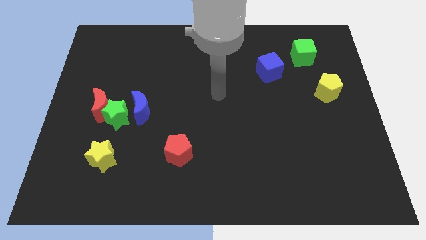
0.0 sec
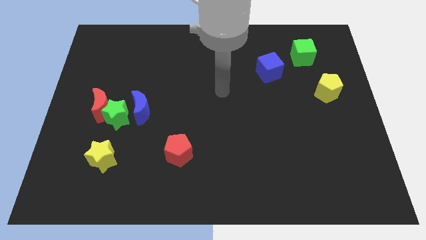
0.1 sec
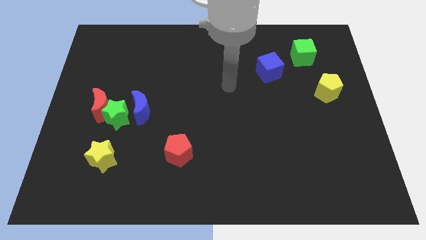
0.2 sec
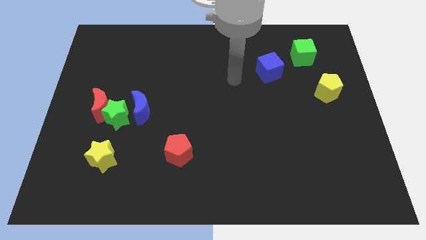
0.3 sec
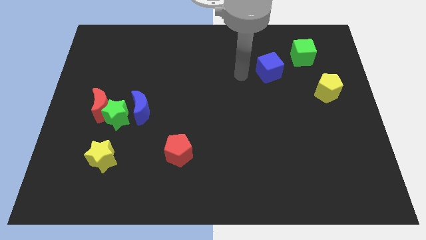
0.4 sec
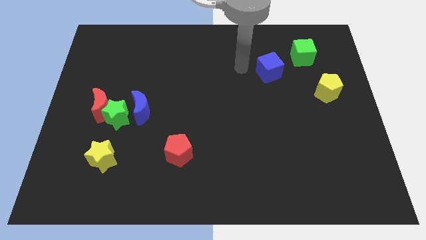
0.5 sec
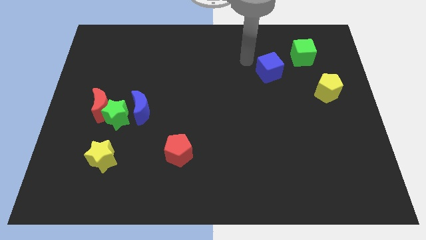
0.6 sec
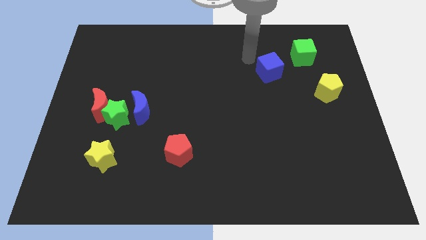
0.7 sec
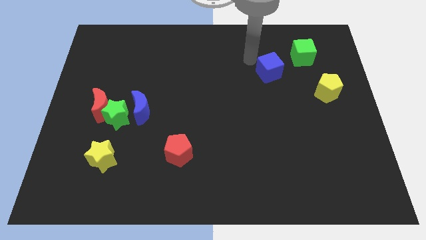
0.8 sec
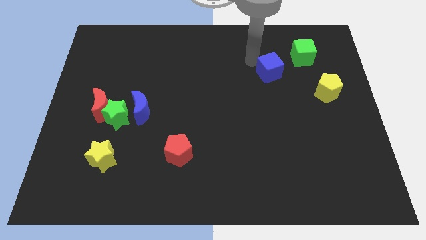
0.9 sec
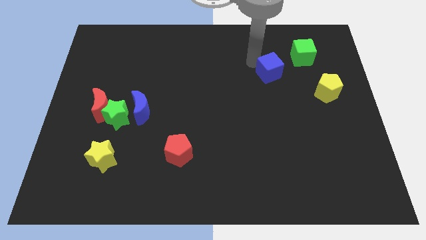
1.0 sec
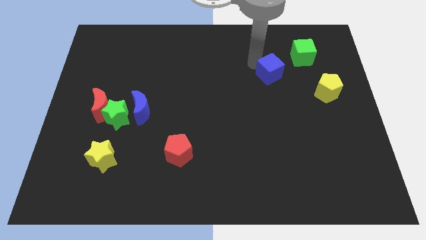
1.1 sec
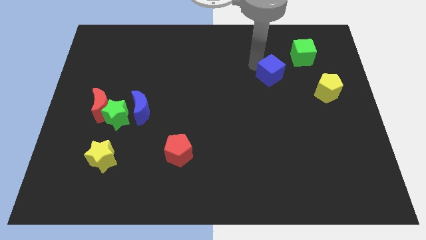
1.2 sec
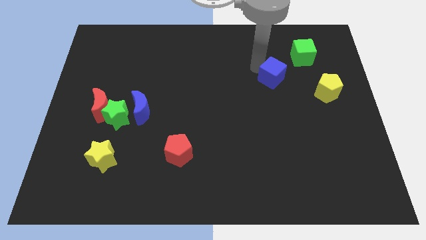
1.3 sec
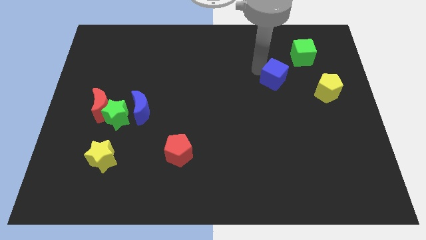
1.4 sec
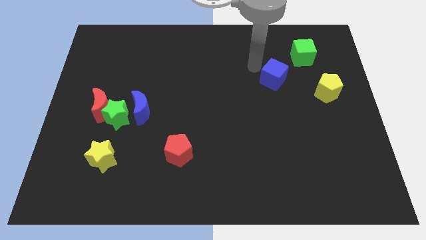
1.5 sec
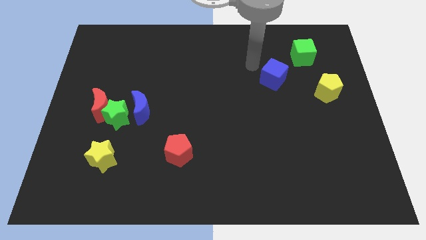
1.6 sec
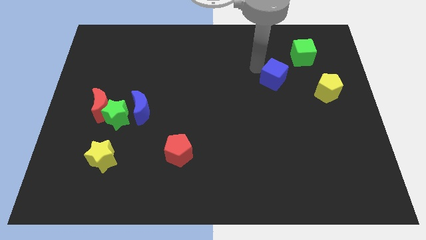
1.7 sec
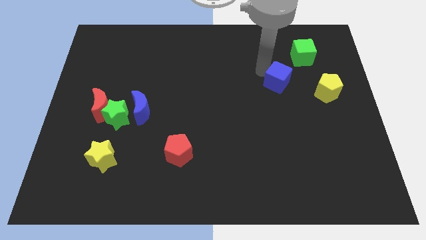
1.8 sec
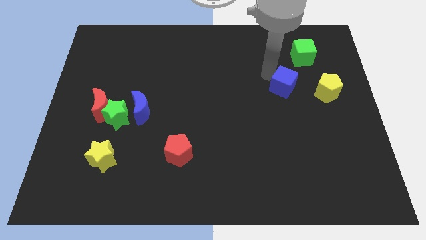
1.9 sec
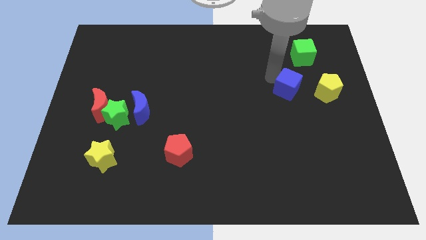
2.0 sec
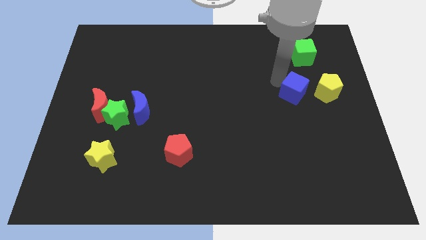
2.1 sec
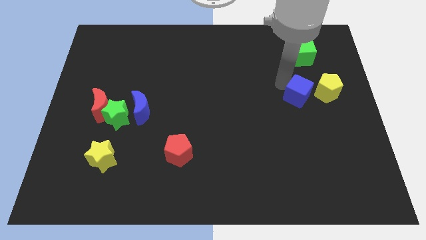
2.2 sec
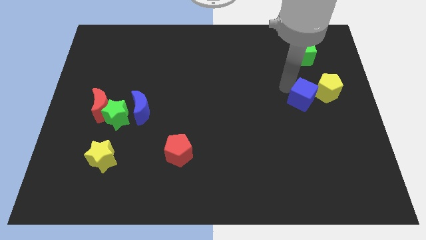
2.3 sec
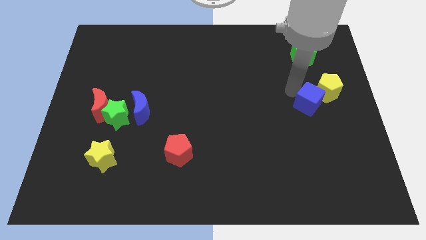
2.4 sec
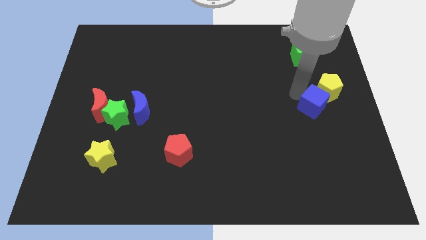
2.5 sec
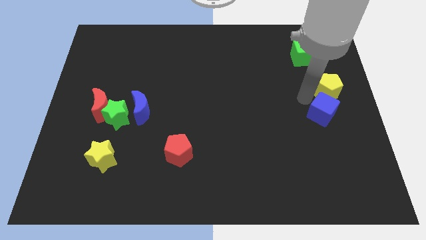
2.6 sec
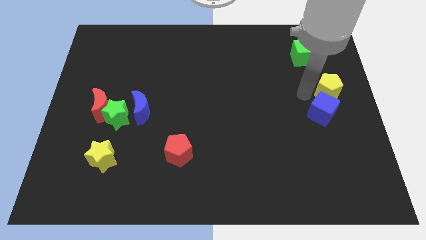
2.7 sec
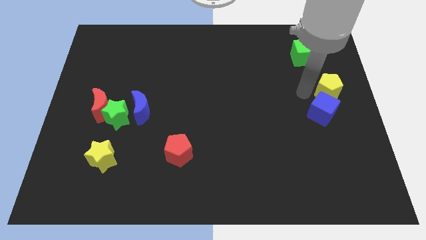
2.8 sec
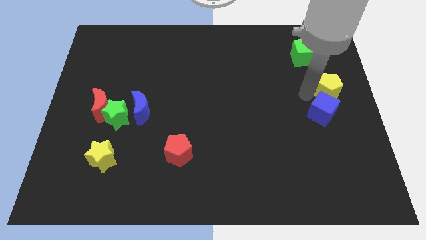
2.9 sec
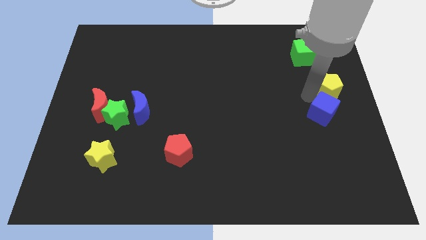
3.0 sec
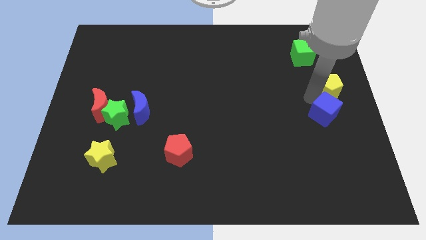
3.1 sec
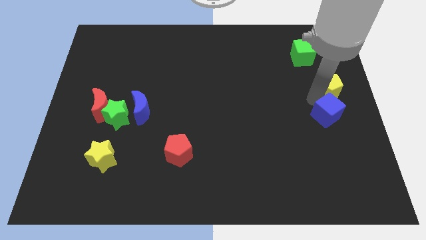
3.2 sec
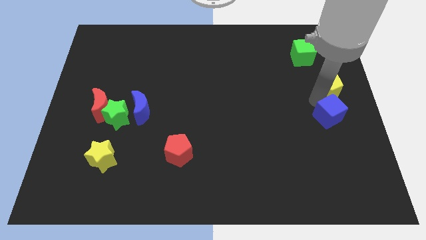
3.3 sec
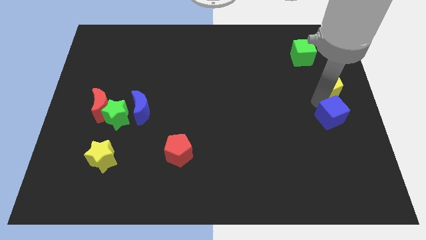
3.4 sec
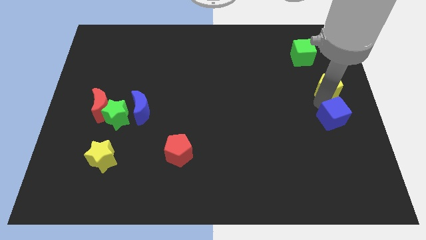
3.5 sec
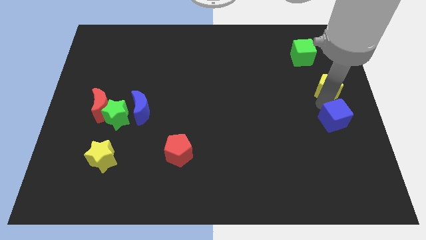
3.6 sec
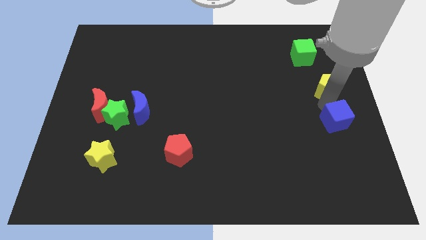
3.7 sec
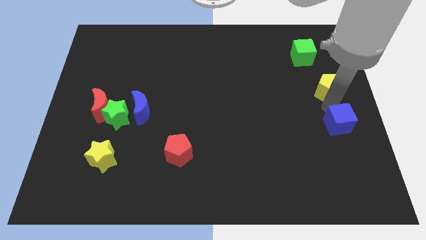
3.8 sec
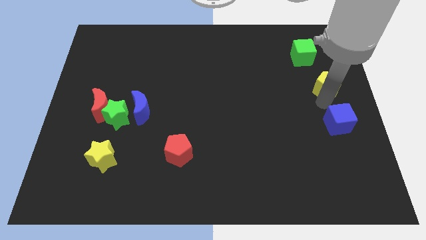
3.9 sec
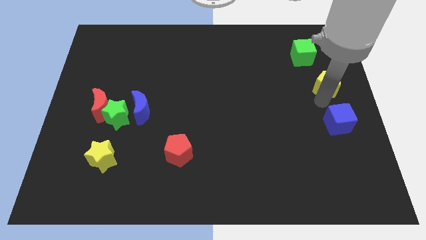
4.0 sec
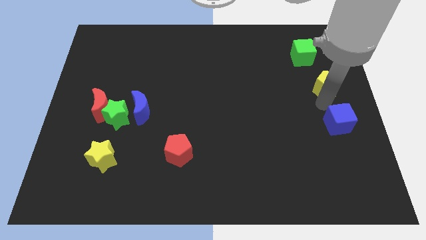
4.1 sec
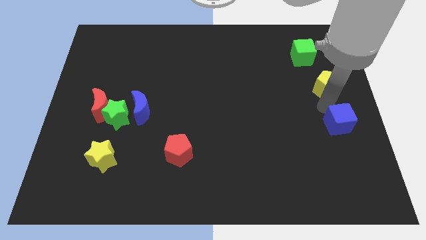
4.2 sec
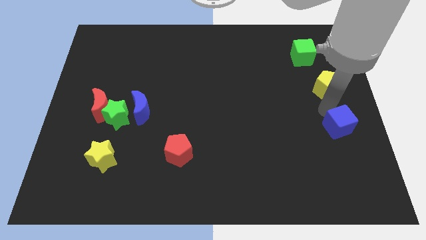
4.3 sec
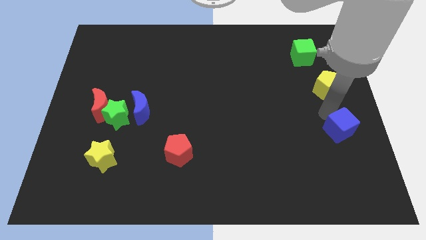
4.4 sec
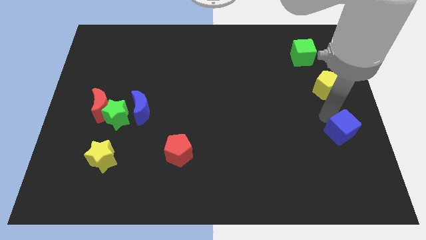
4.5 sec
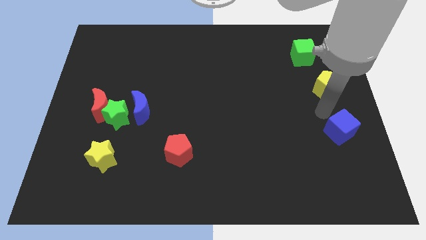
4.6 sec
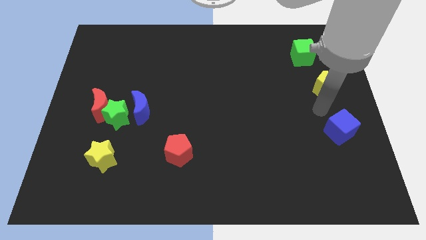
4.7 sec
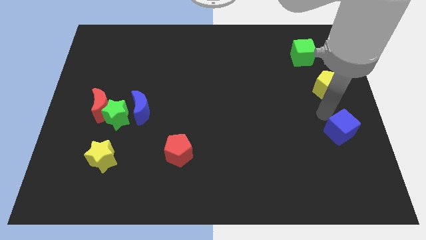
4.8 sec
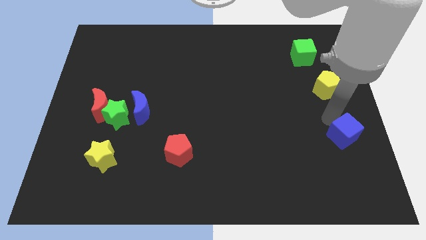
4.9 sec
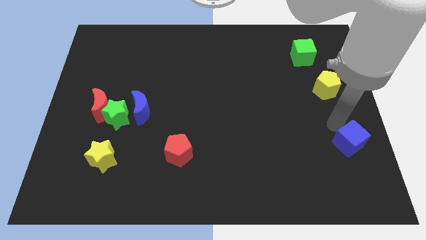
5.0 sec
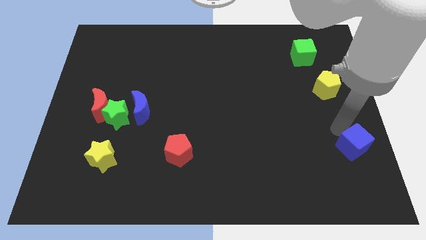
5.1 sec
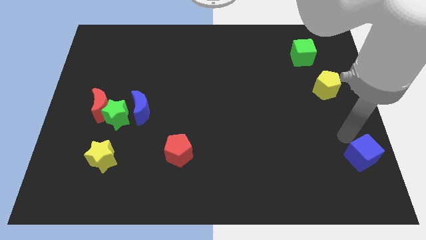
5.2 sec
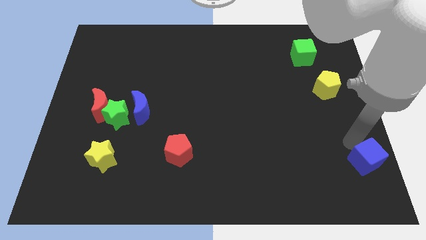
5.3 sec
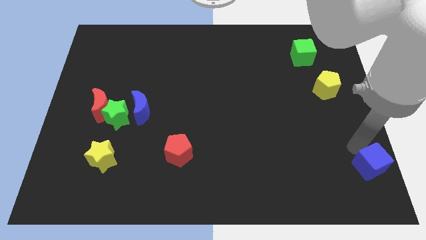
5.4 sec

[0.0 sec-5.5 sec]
move the blue cube to the bottom right of the board

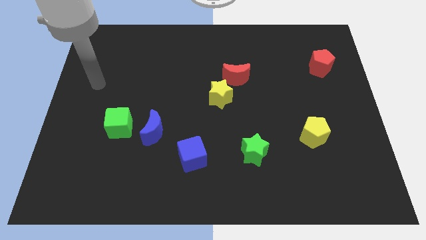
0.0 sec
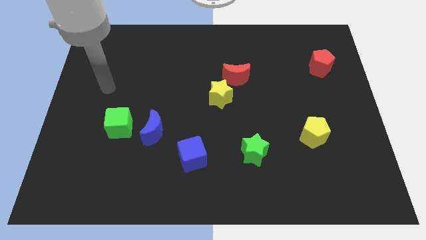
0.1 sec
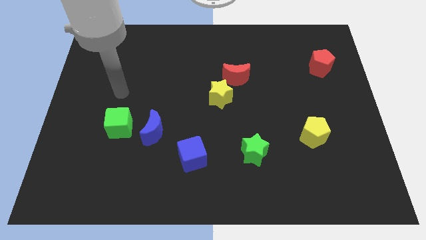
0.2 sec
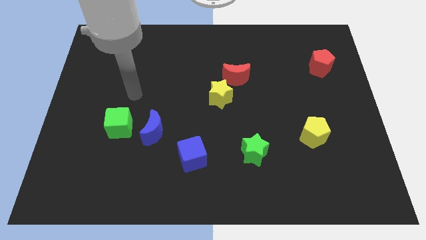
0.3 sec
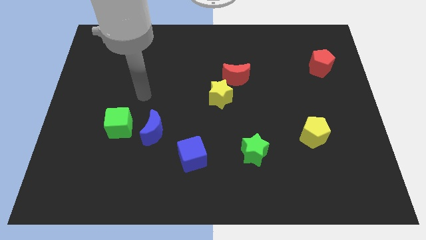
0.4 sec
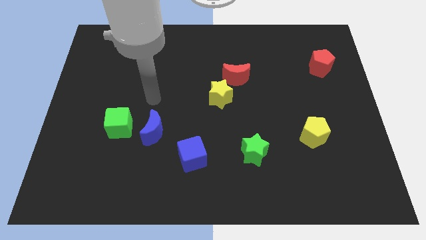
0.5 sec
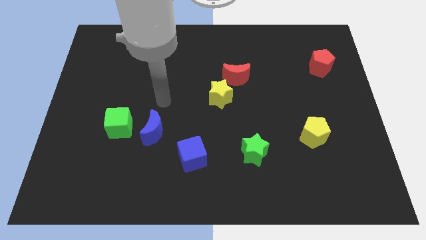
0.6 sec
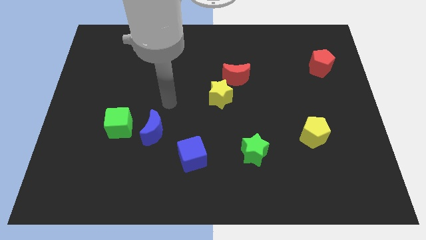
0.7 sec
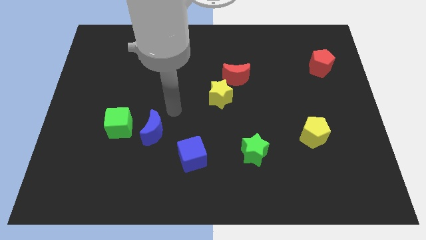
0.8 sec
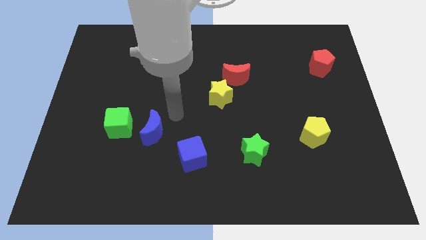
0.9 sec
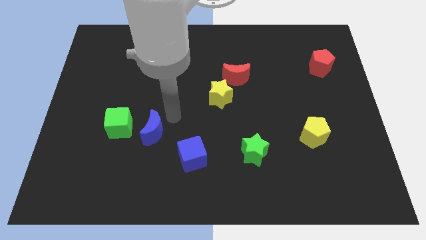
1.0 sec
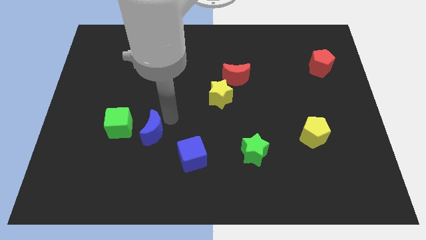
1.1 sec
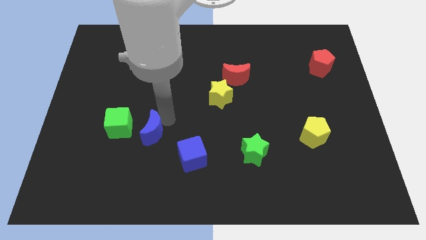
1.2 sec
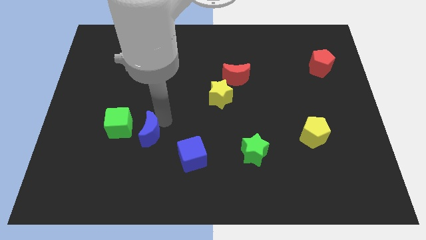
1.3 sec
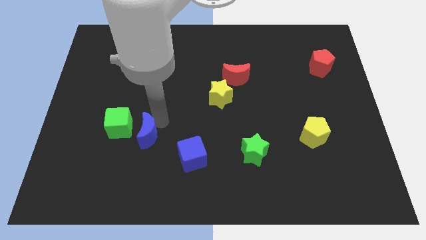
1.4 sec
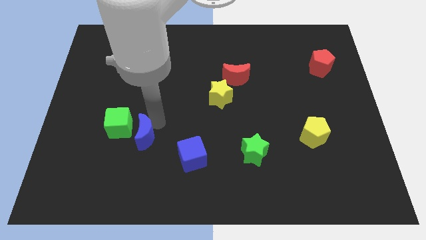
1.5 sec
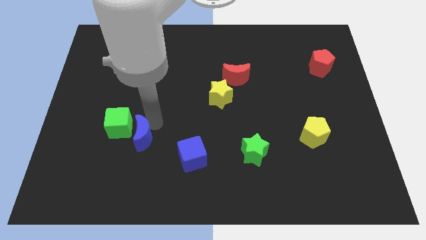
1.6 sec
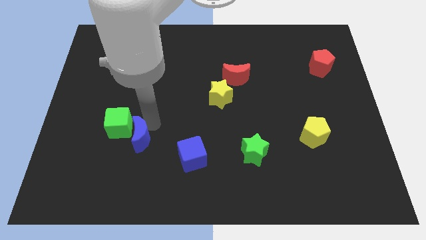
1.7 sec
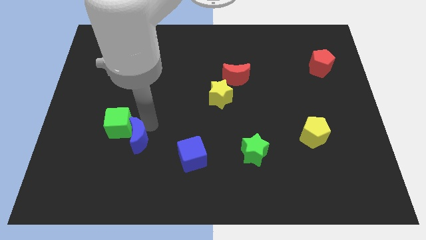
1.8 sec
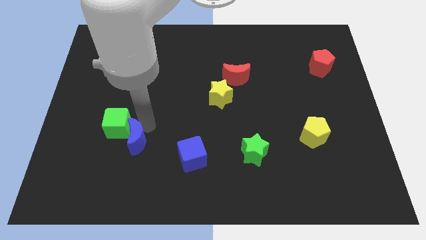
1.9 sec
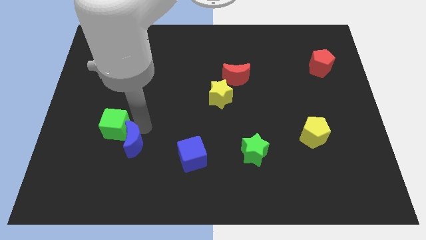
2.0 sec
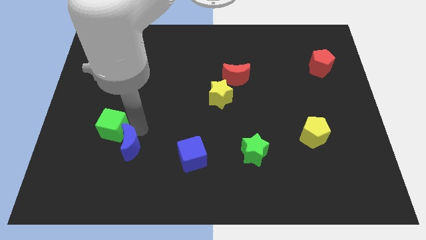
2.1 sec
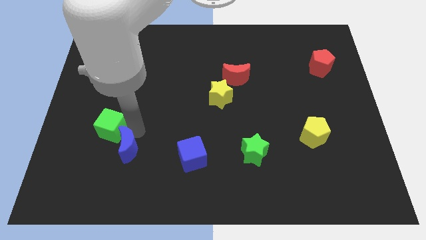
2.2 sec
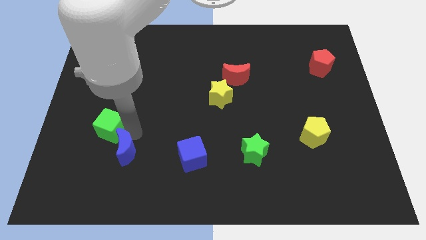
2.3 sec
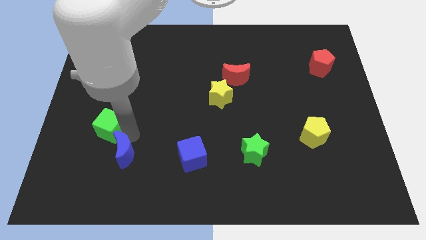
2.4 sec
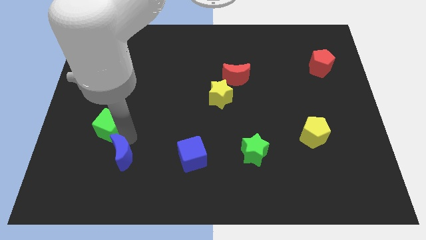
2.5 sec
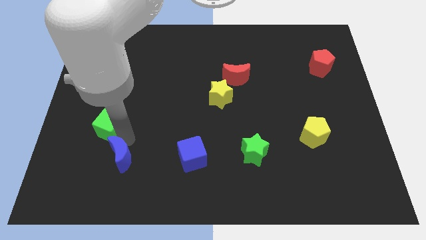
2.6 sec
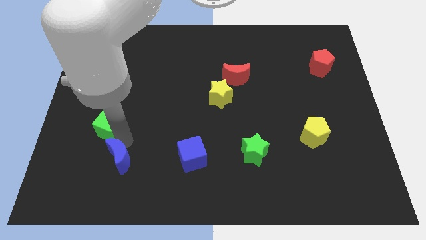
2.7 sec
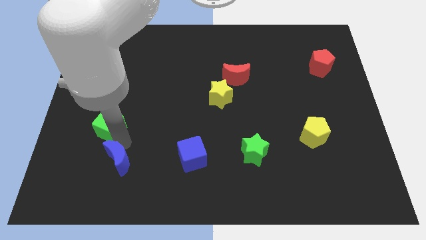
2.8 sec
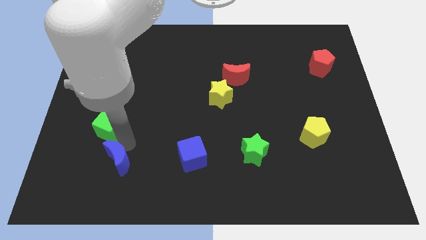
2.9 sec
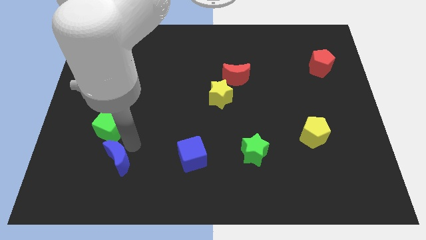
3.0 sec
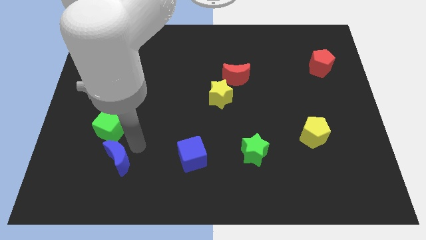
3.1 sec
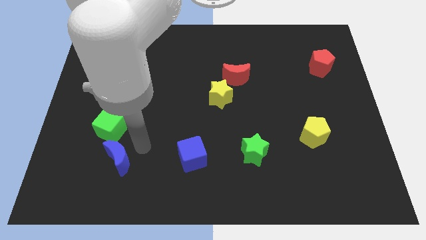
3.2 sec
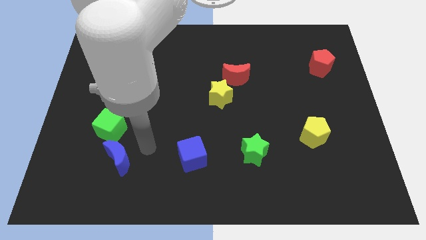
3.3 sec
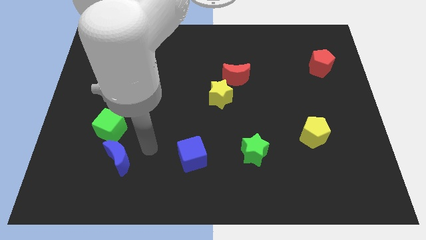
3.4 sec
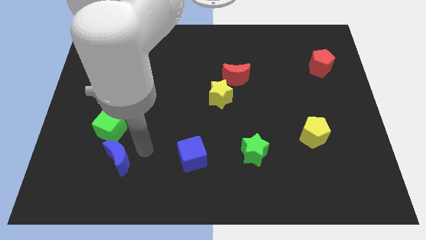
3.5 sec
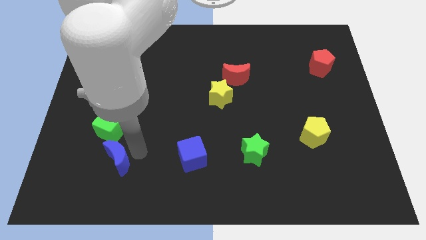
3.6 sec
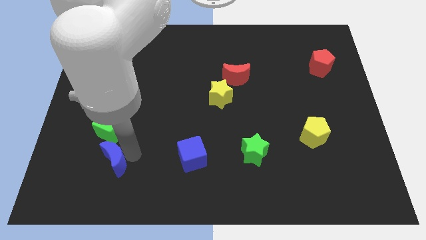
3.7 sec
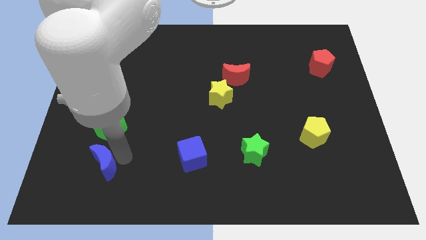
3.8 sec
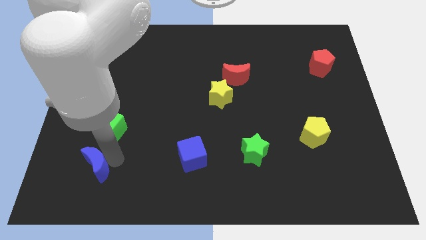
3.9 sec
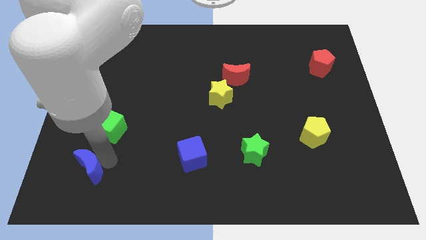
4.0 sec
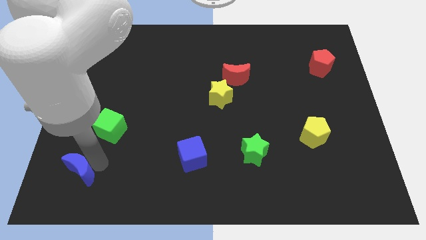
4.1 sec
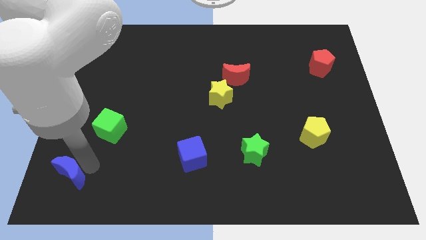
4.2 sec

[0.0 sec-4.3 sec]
push the blue moon to the lower left corner
